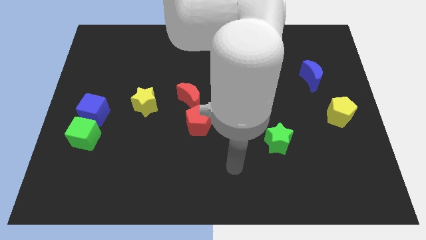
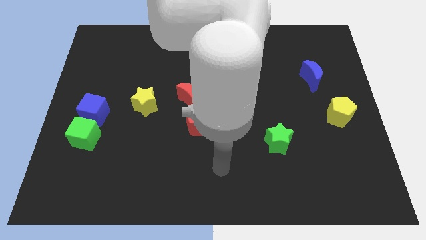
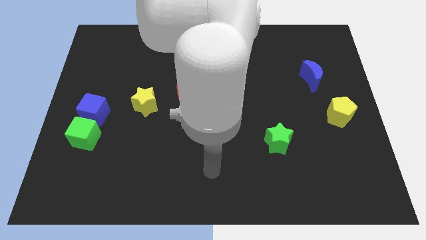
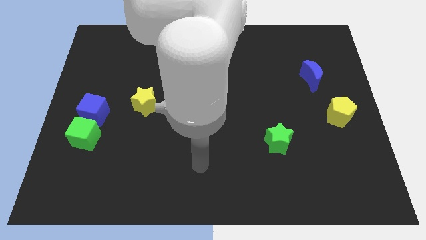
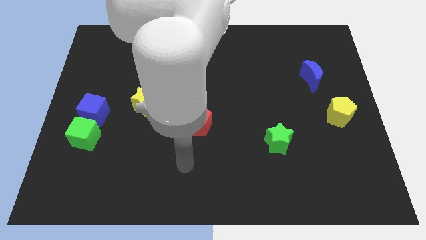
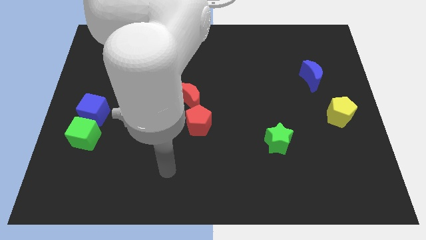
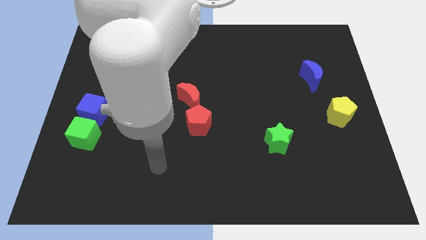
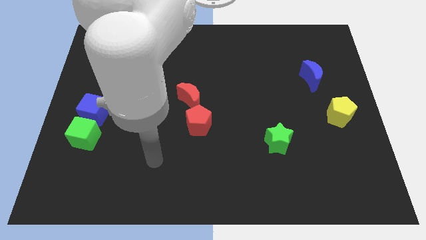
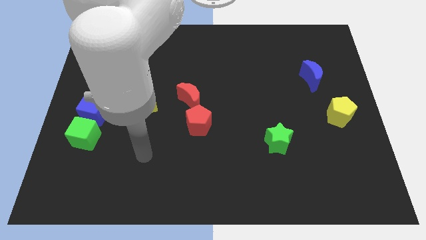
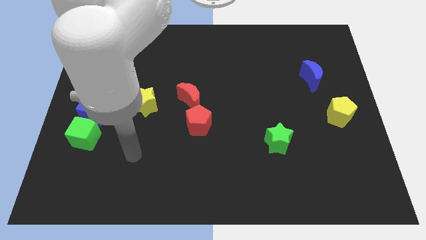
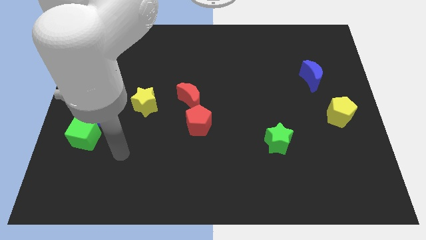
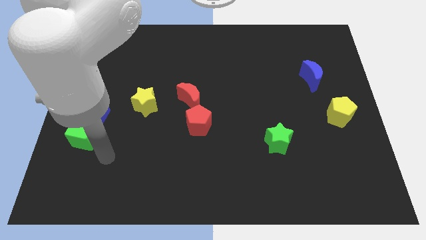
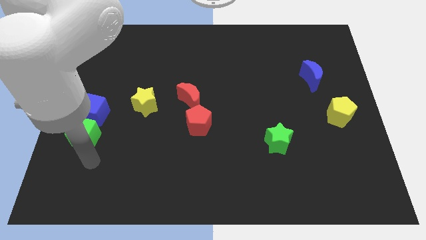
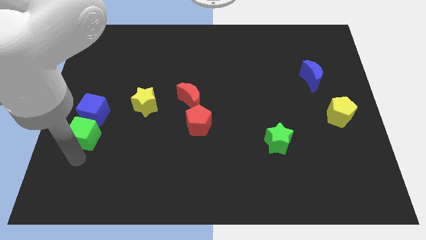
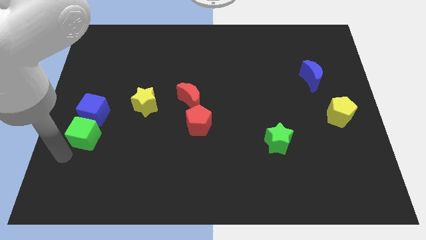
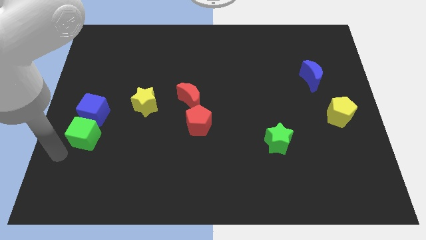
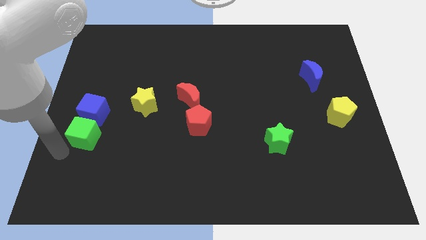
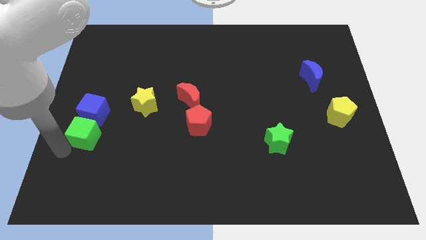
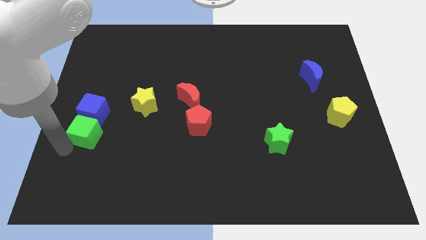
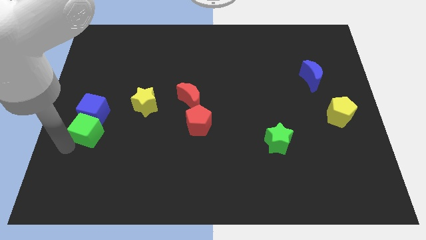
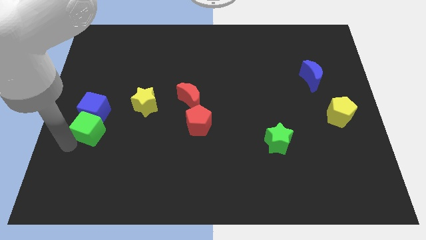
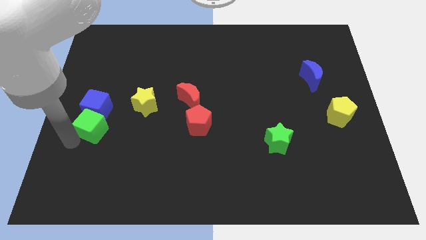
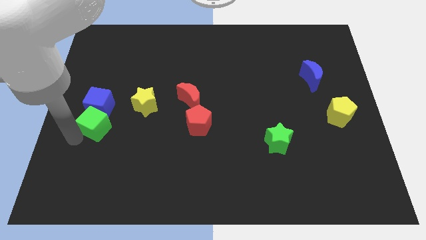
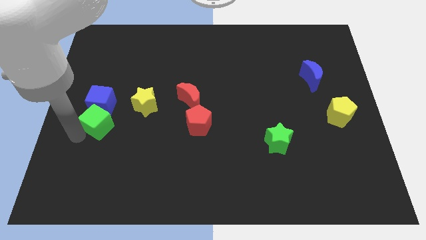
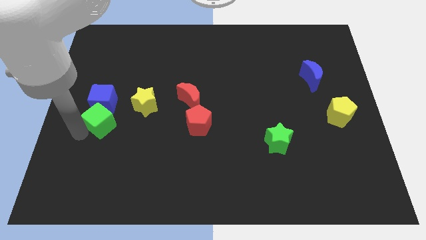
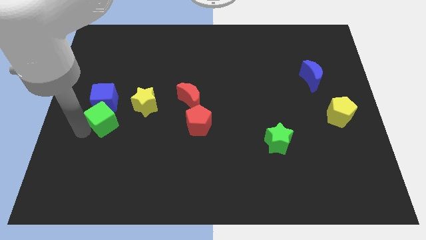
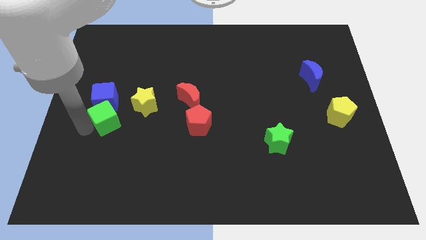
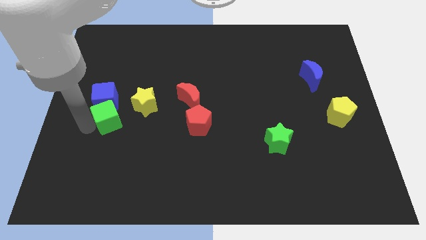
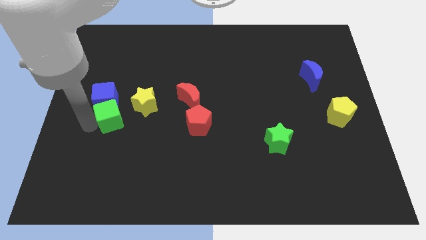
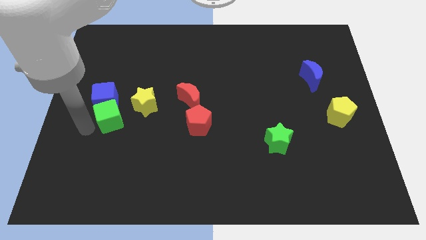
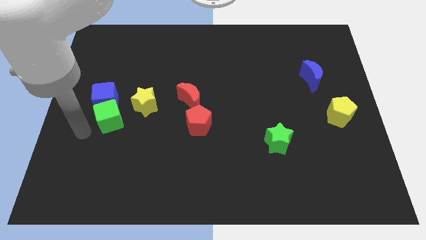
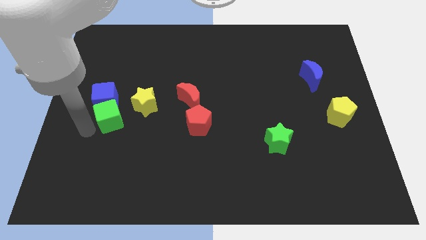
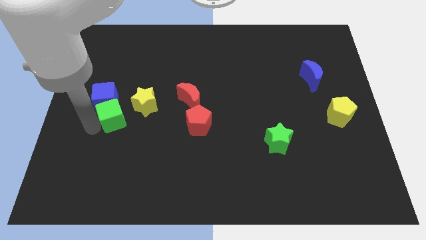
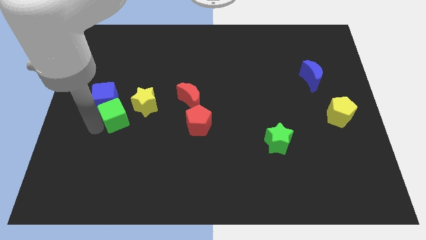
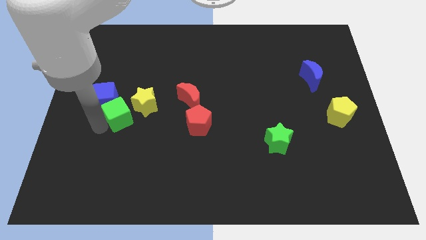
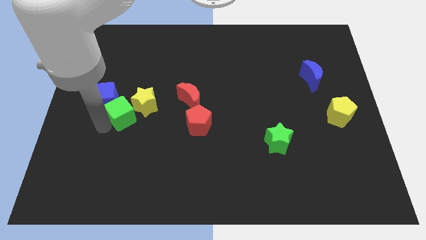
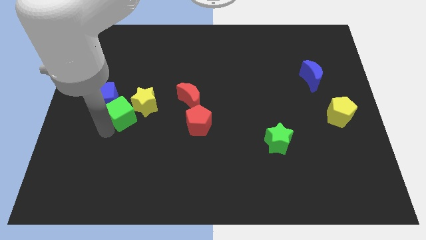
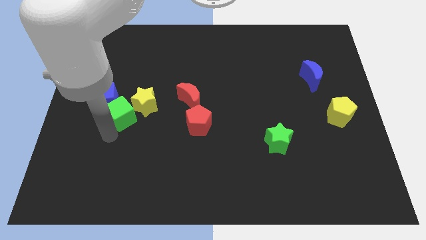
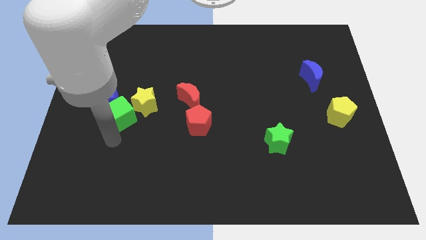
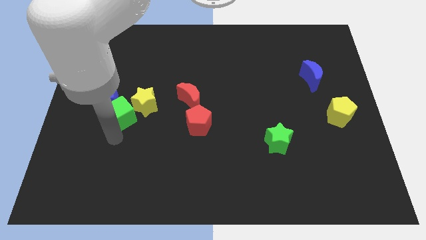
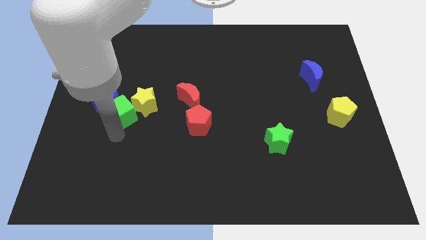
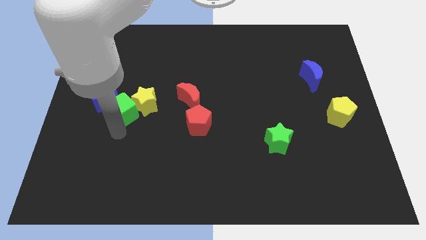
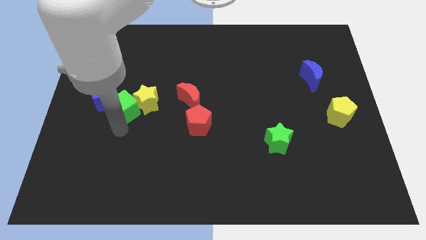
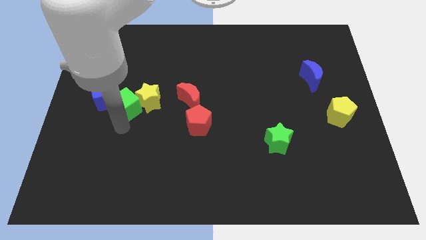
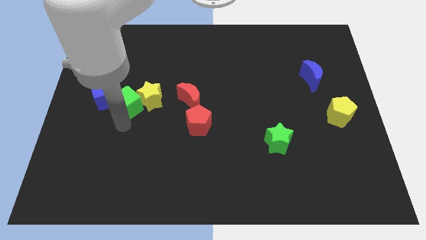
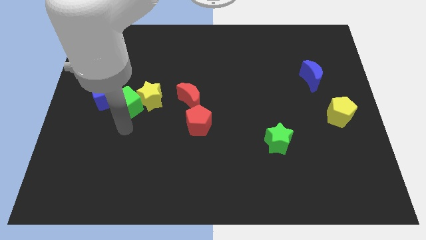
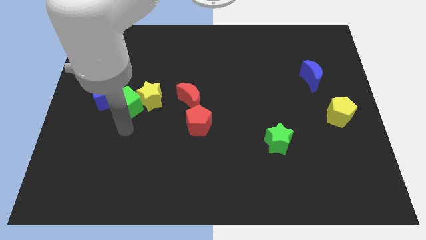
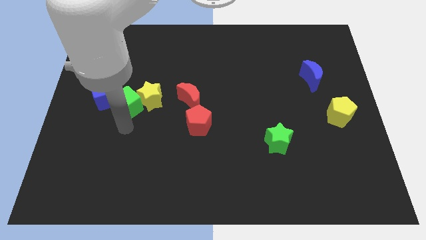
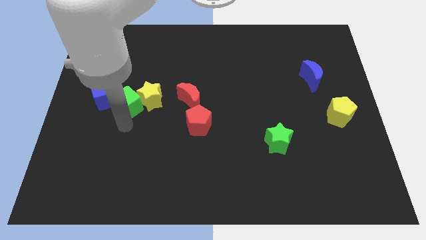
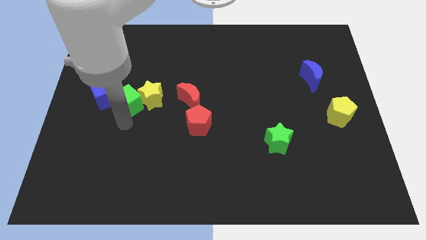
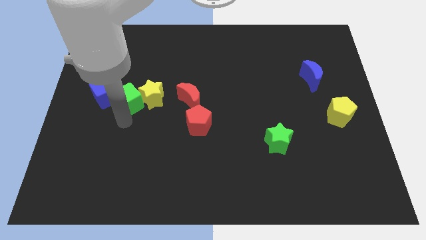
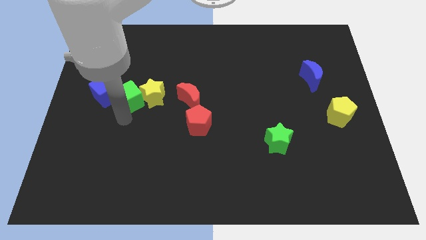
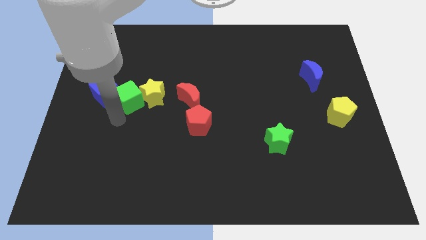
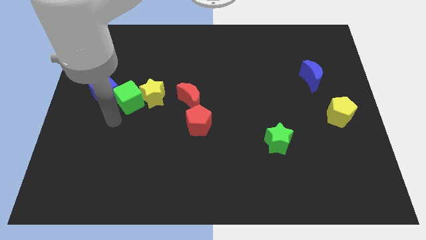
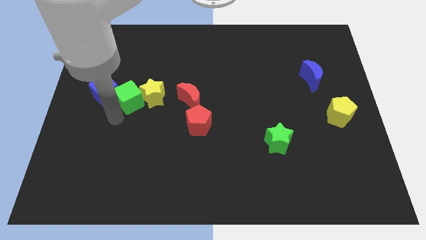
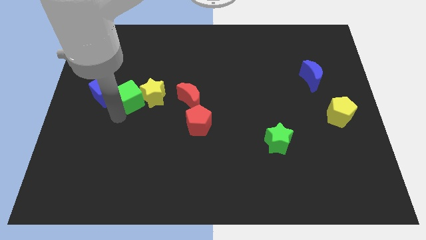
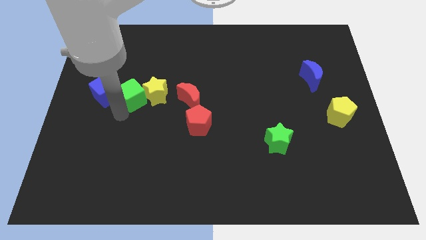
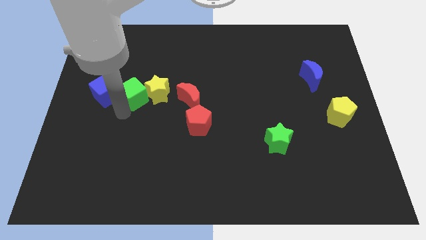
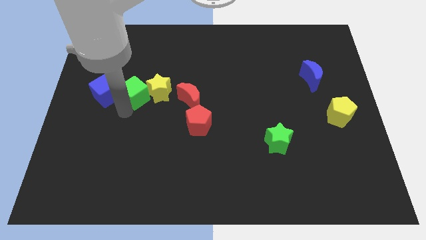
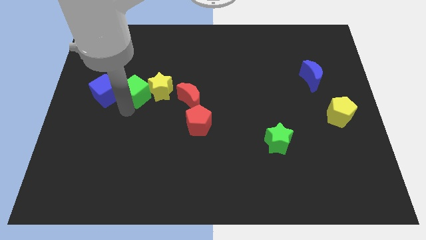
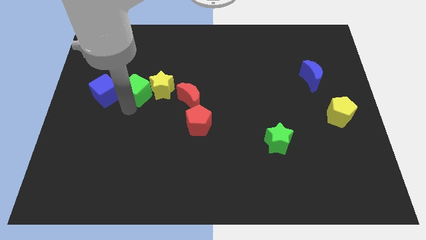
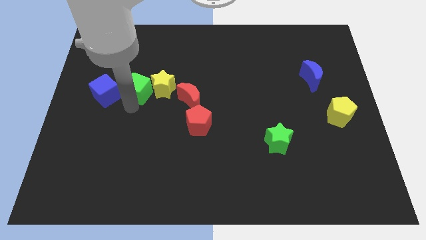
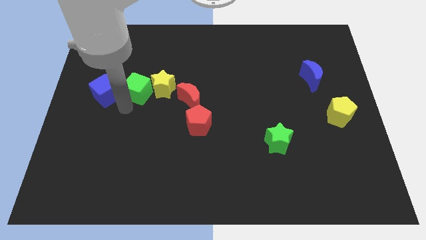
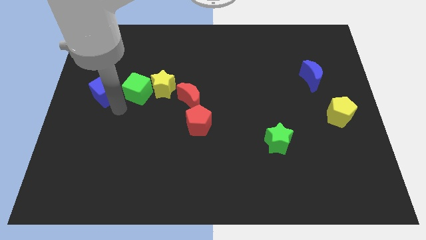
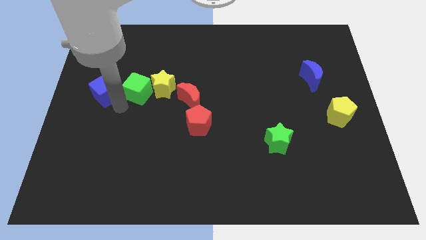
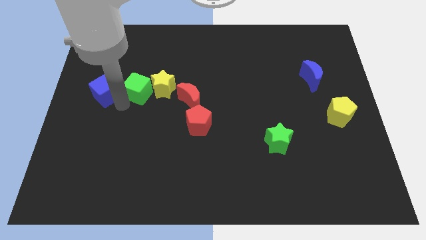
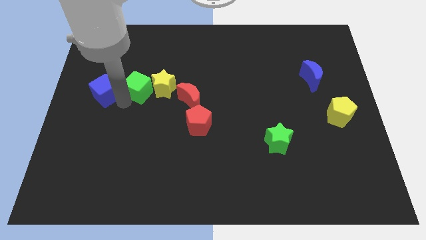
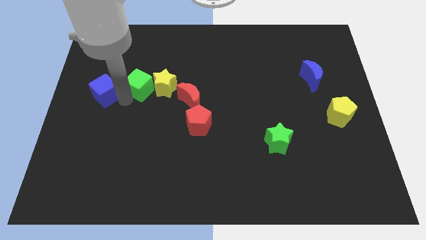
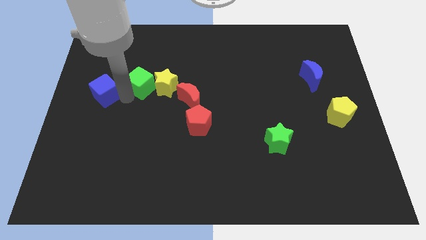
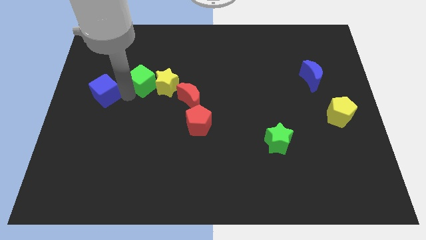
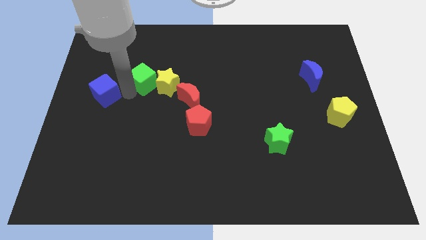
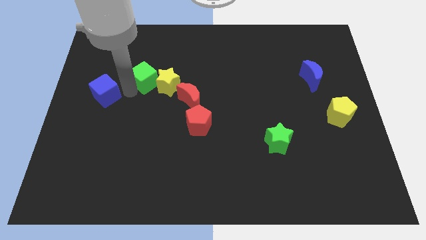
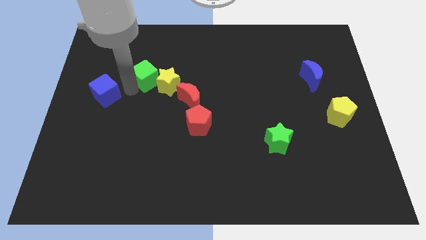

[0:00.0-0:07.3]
move the green cube up and to the right diagonally

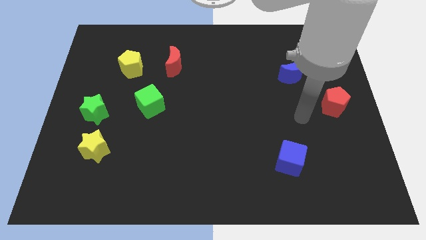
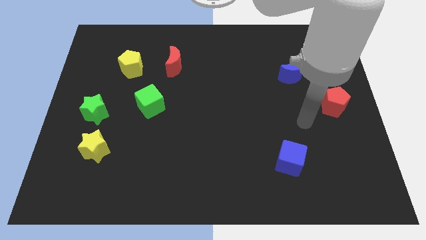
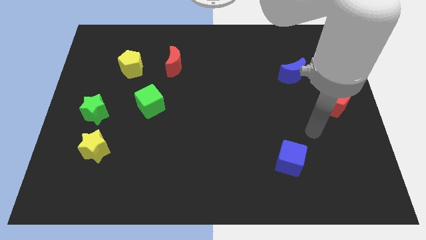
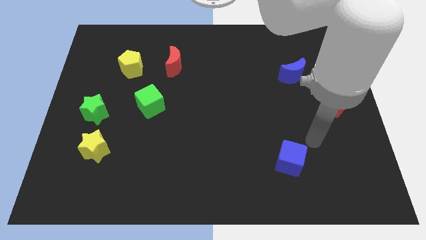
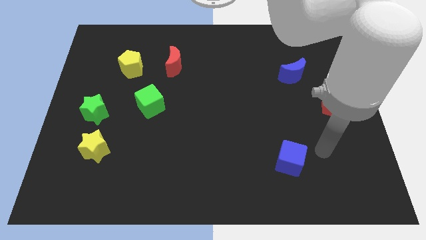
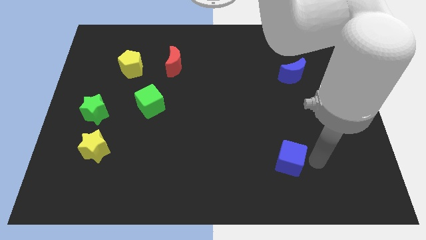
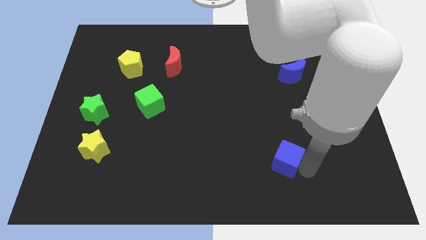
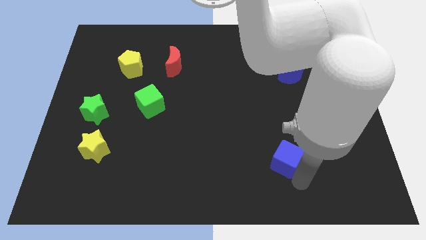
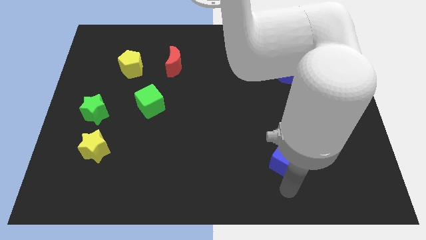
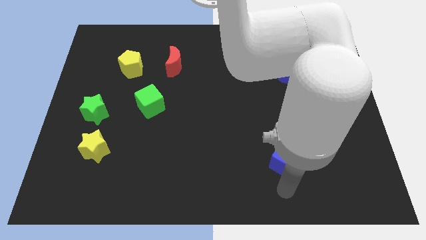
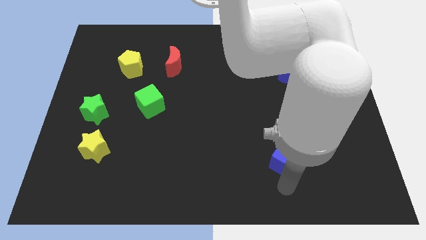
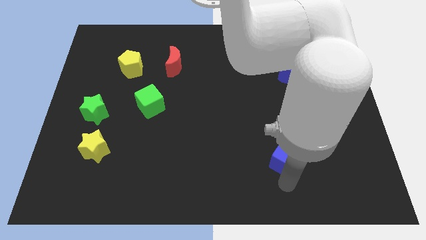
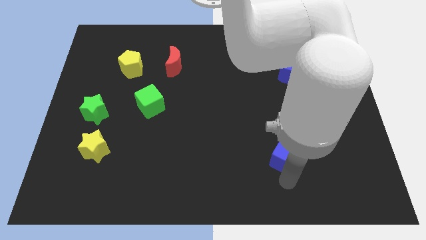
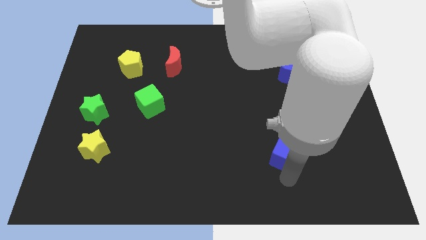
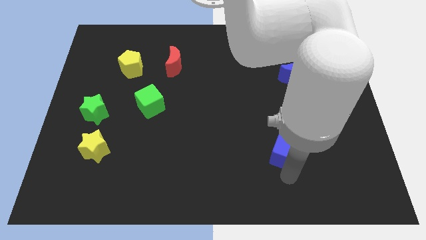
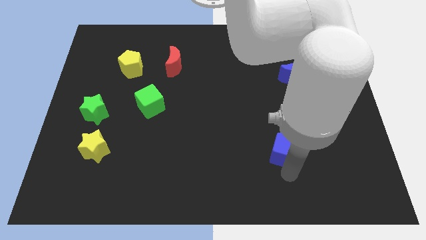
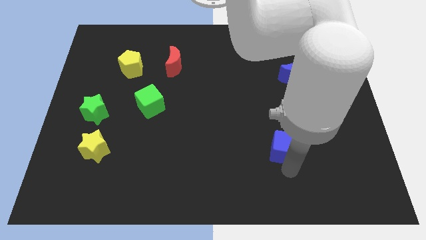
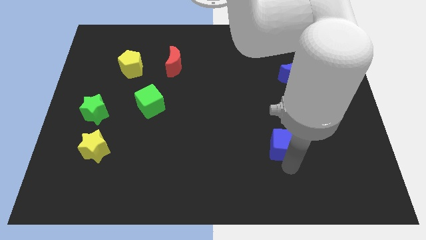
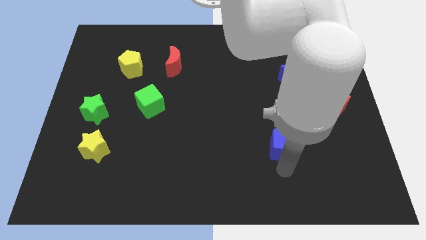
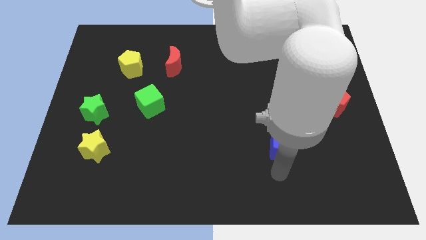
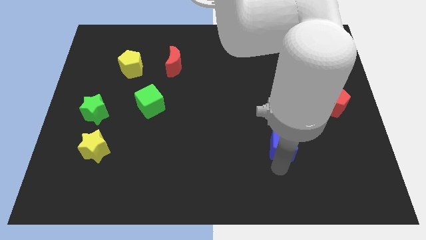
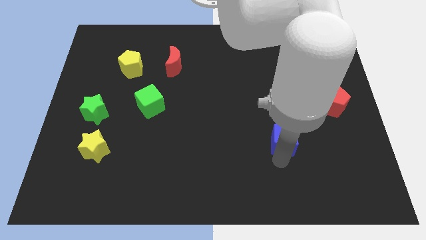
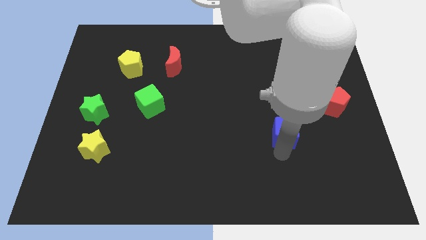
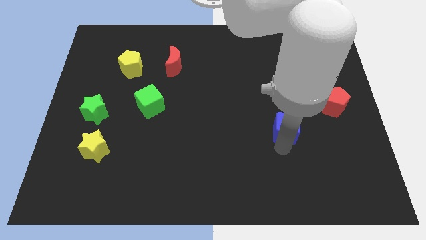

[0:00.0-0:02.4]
slide the blue cube upwards a little bit
